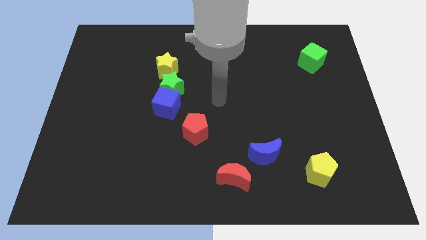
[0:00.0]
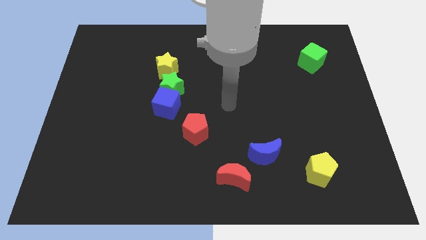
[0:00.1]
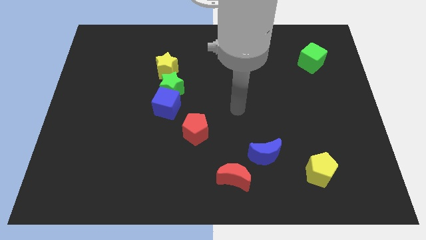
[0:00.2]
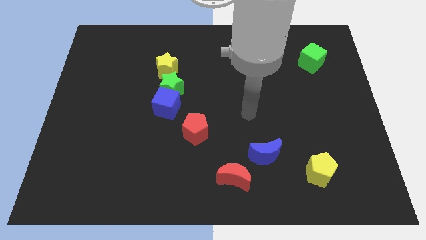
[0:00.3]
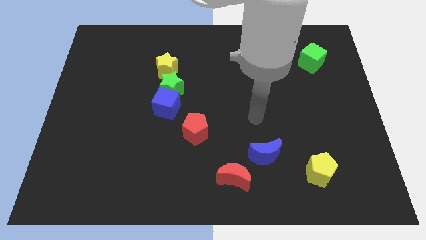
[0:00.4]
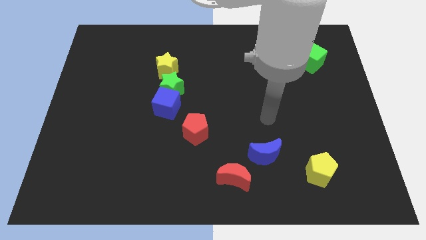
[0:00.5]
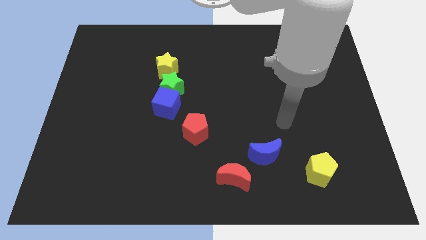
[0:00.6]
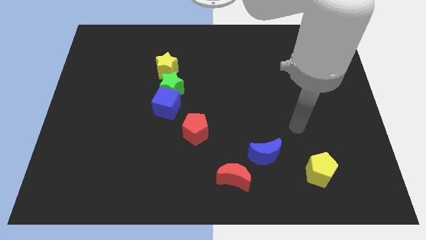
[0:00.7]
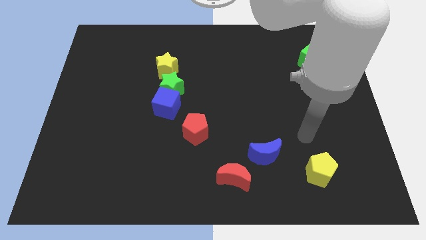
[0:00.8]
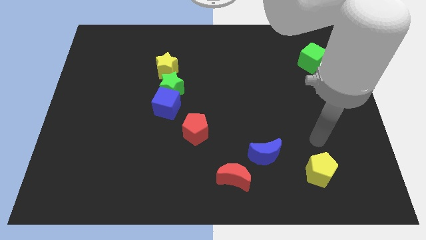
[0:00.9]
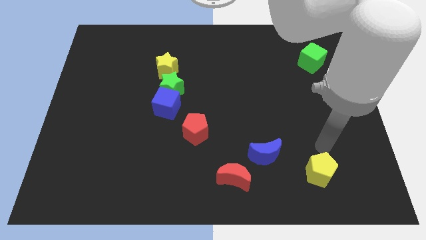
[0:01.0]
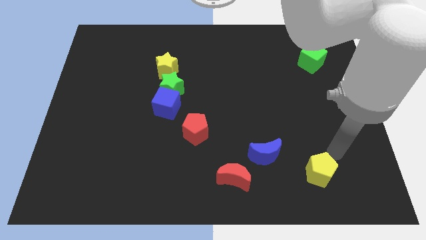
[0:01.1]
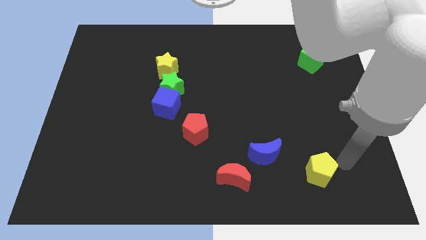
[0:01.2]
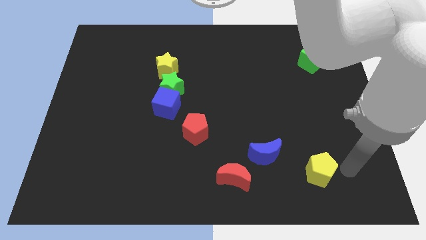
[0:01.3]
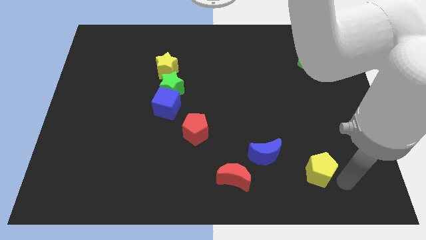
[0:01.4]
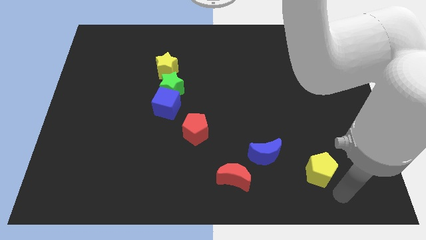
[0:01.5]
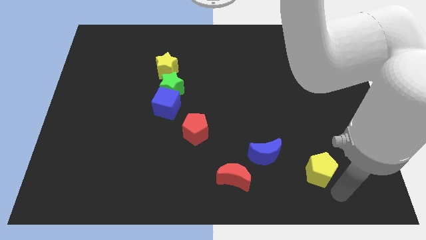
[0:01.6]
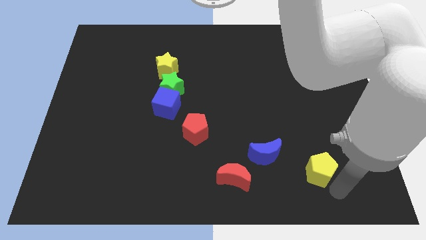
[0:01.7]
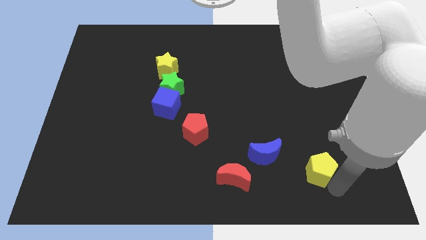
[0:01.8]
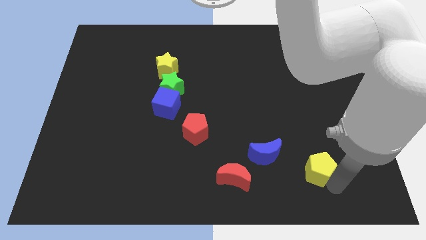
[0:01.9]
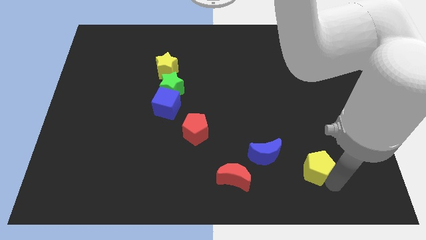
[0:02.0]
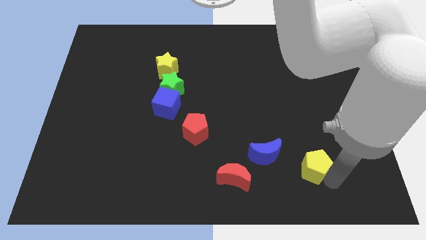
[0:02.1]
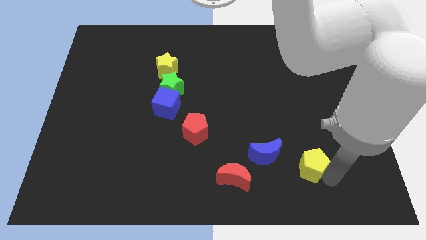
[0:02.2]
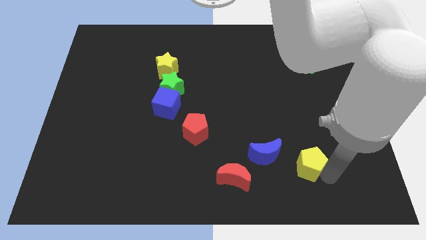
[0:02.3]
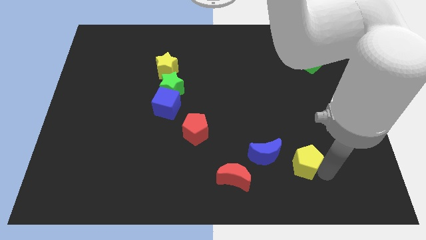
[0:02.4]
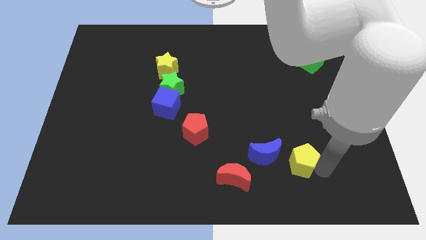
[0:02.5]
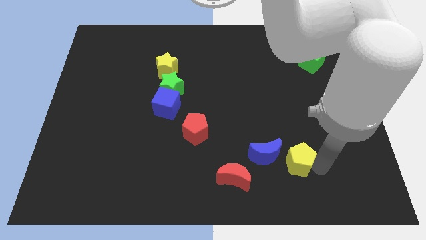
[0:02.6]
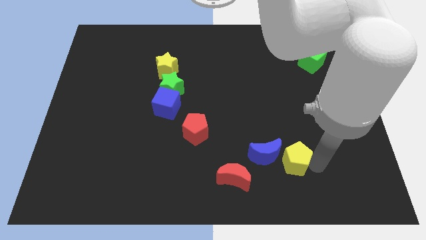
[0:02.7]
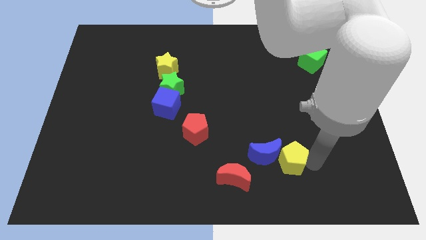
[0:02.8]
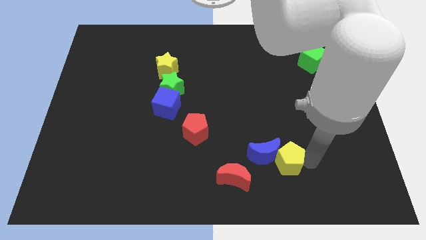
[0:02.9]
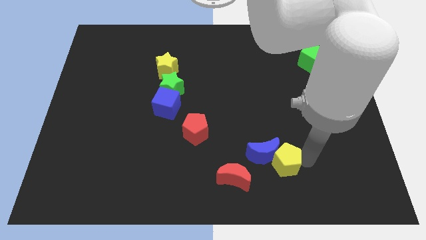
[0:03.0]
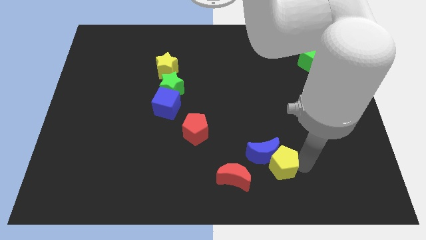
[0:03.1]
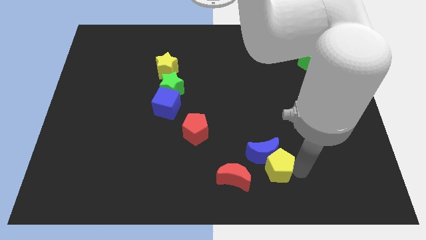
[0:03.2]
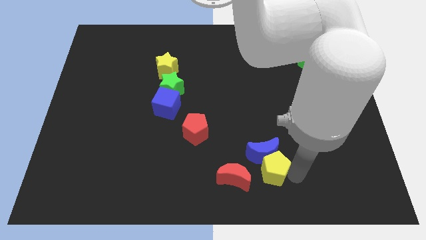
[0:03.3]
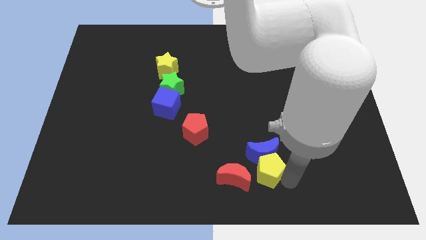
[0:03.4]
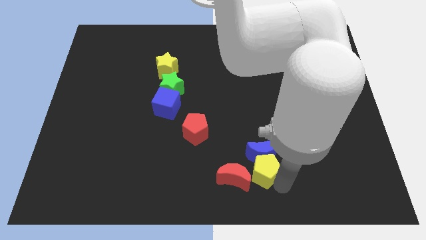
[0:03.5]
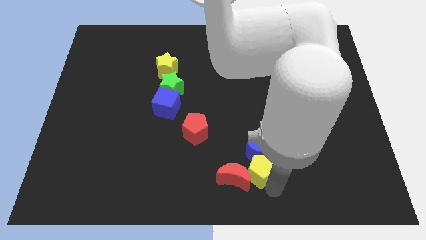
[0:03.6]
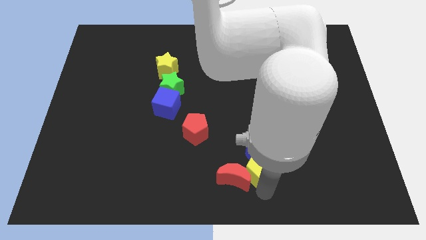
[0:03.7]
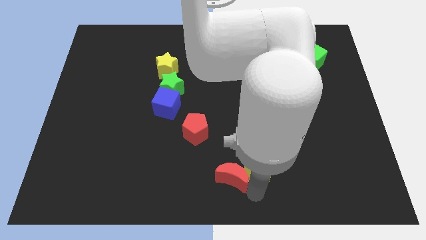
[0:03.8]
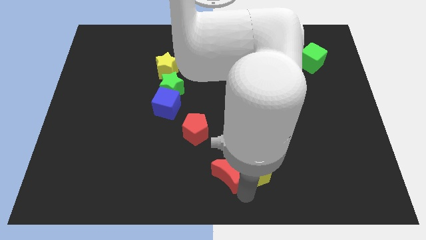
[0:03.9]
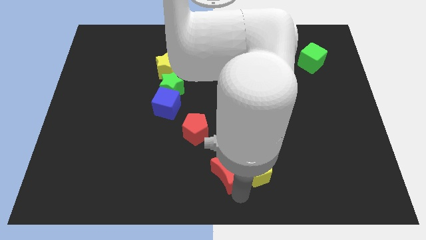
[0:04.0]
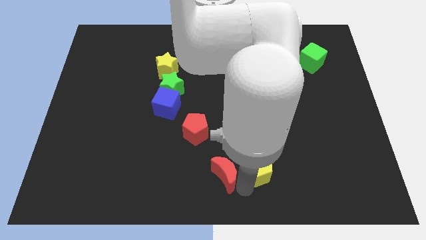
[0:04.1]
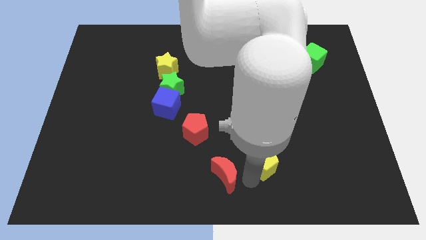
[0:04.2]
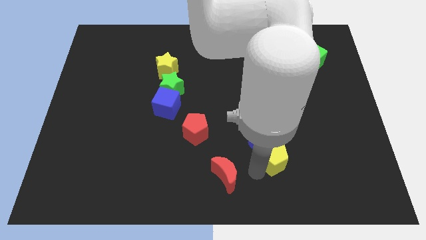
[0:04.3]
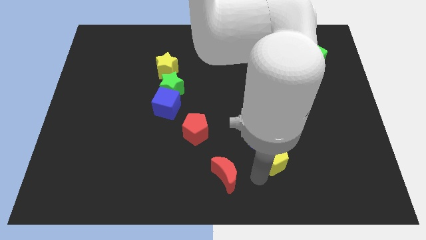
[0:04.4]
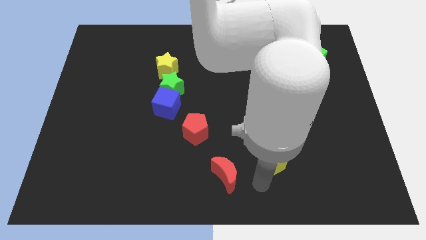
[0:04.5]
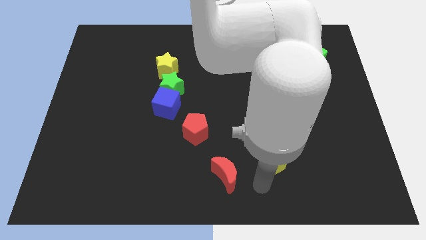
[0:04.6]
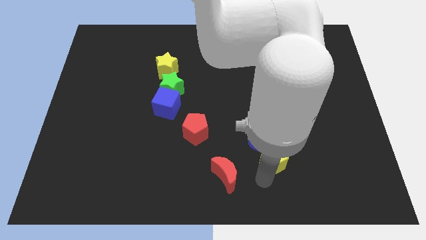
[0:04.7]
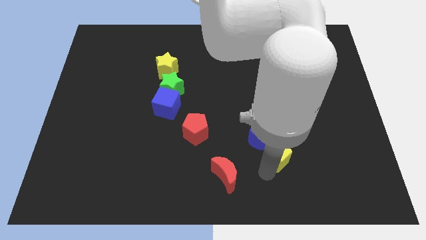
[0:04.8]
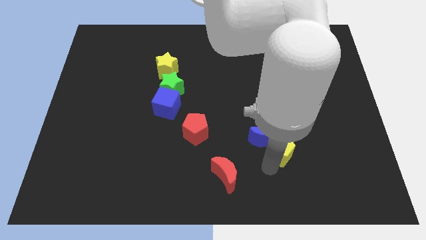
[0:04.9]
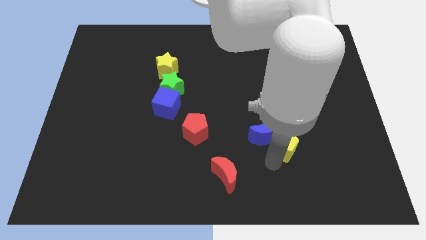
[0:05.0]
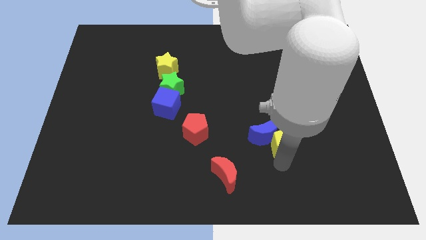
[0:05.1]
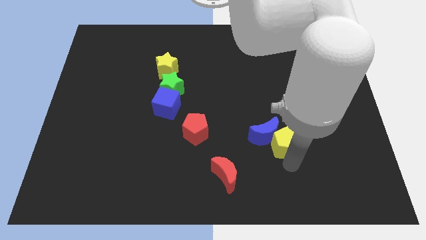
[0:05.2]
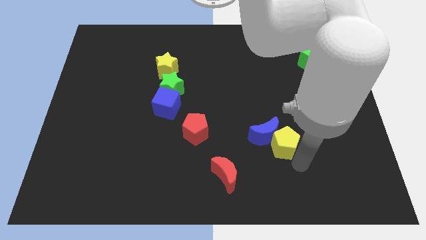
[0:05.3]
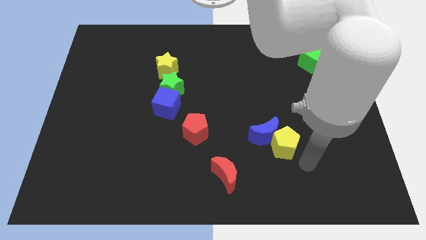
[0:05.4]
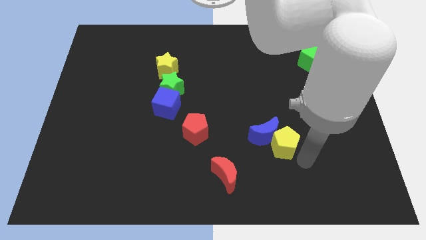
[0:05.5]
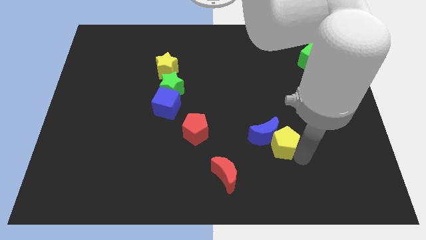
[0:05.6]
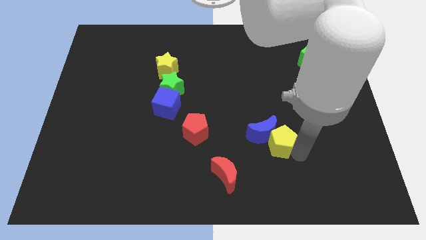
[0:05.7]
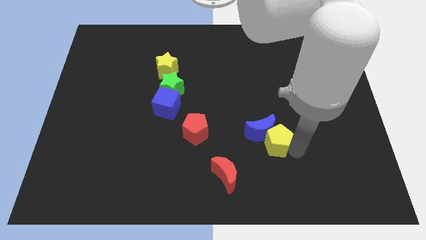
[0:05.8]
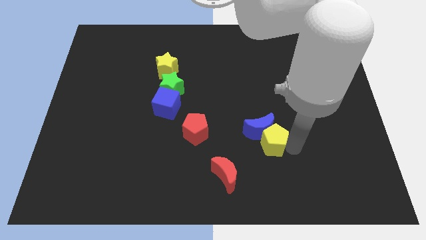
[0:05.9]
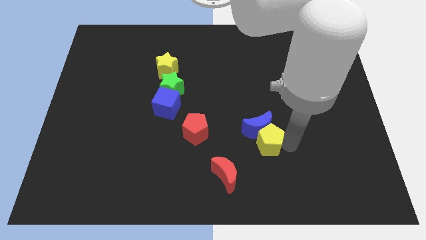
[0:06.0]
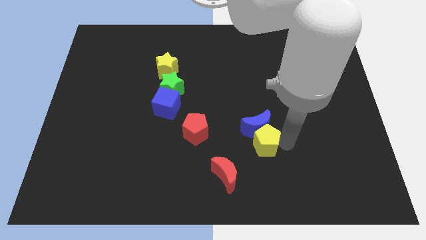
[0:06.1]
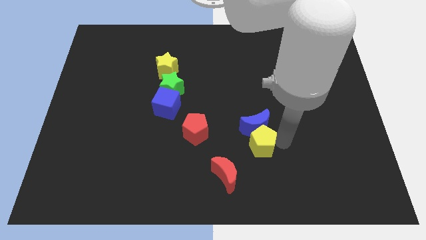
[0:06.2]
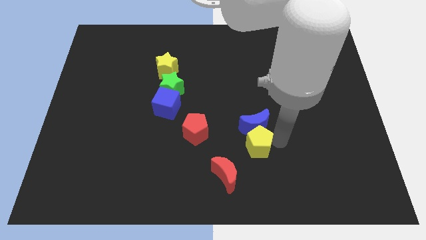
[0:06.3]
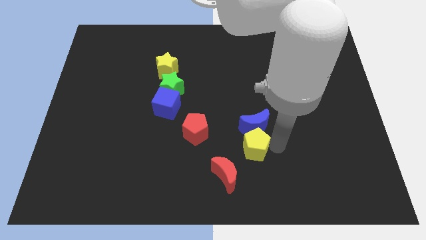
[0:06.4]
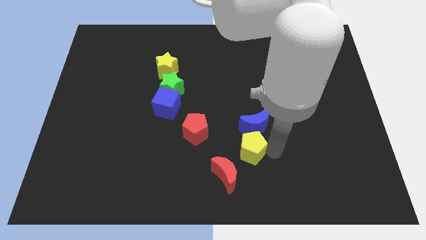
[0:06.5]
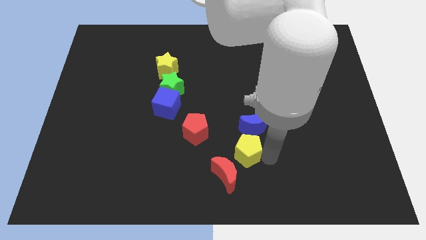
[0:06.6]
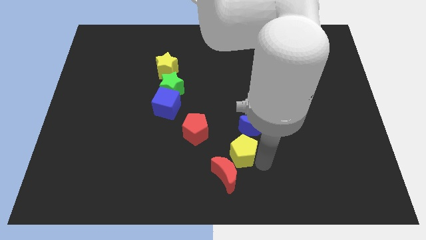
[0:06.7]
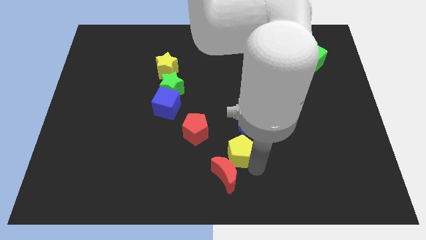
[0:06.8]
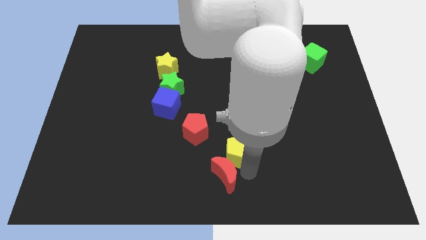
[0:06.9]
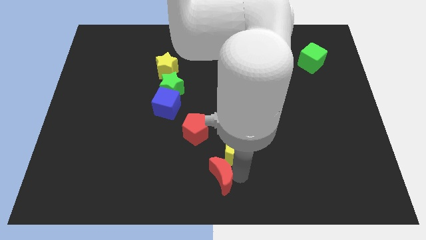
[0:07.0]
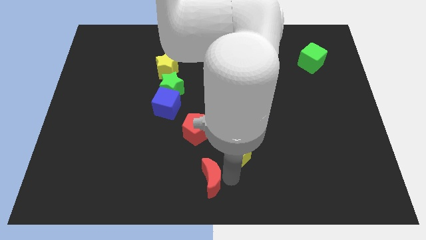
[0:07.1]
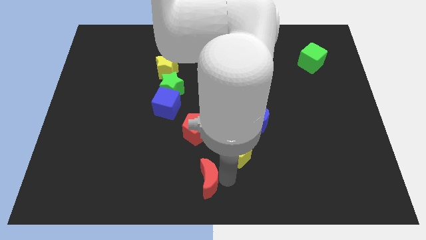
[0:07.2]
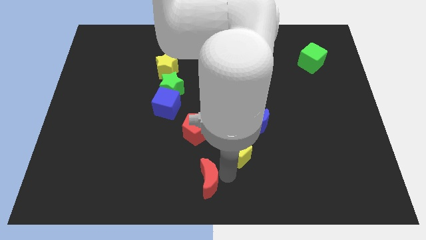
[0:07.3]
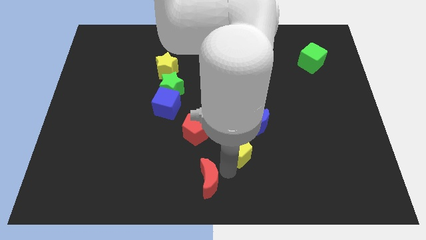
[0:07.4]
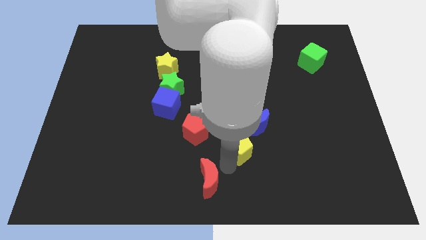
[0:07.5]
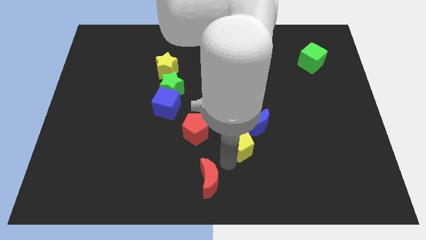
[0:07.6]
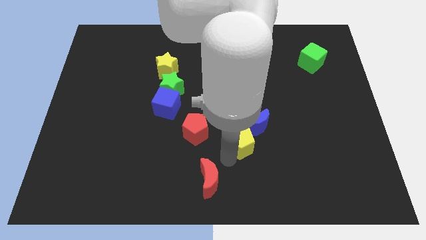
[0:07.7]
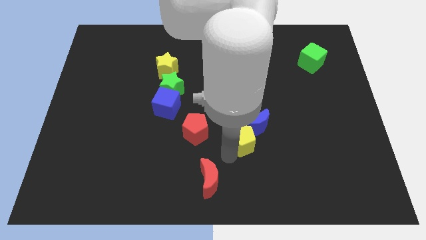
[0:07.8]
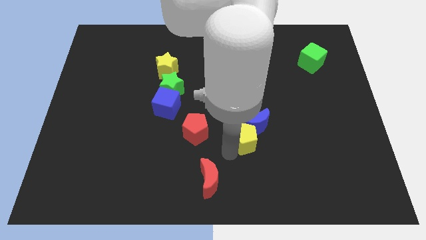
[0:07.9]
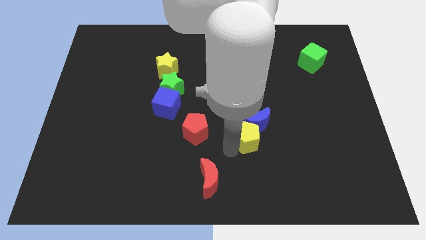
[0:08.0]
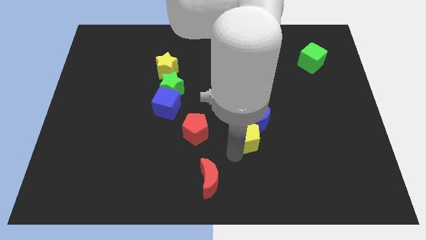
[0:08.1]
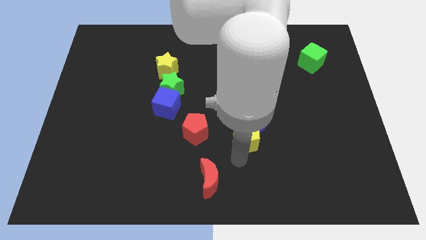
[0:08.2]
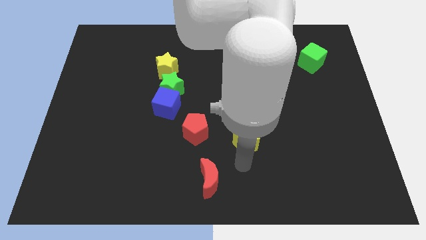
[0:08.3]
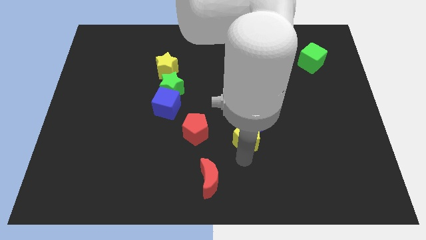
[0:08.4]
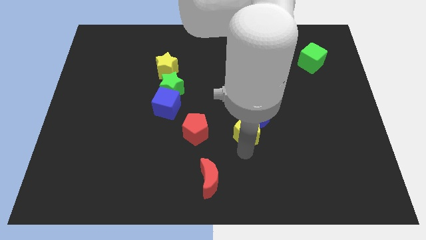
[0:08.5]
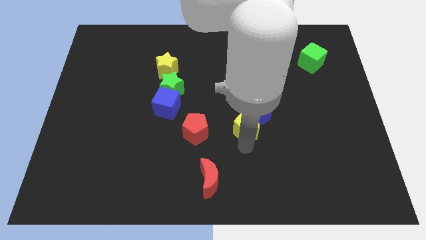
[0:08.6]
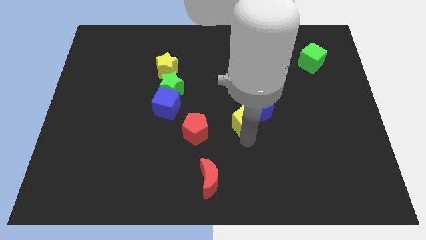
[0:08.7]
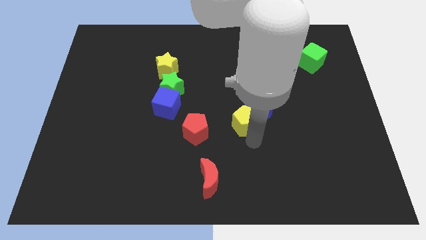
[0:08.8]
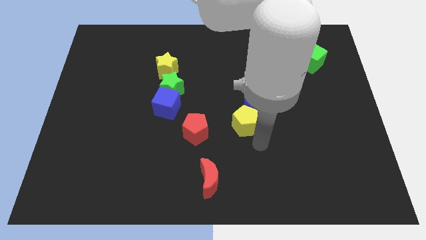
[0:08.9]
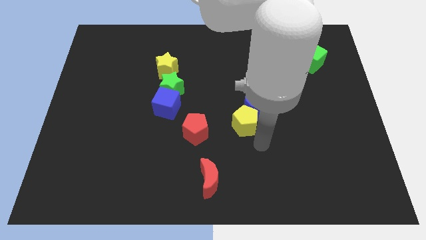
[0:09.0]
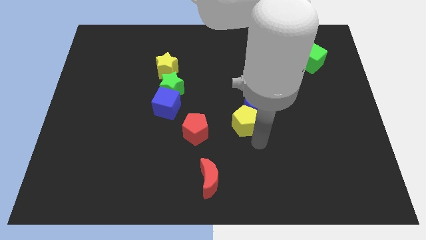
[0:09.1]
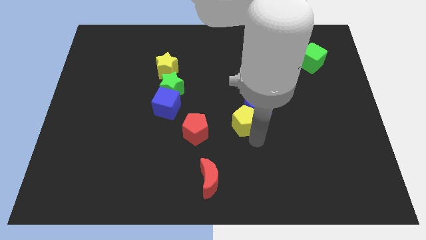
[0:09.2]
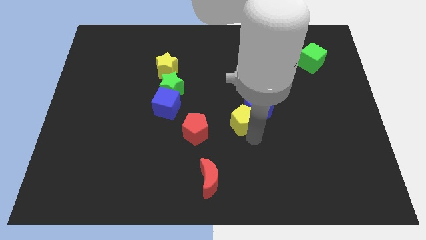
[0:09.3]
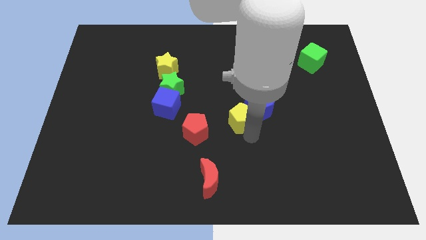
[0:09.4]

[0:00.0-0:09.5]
move the yellow pentagon up and to the left diagonally
